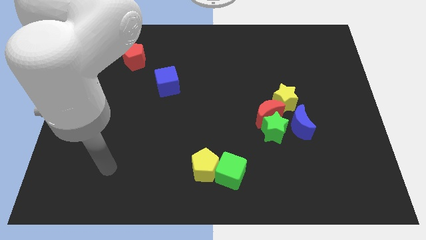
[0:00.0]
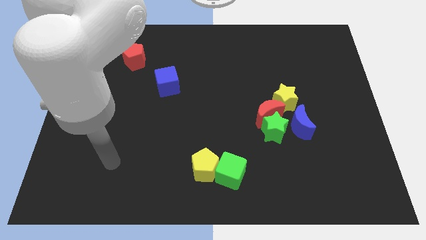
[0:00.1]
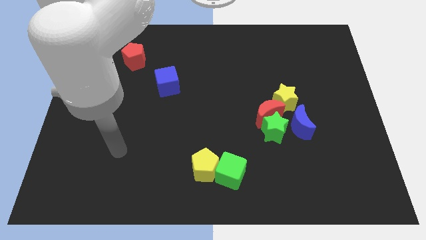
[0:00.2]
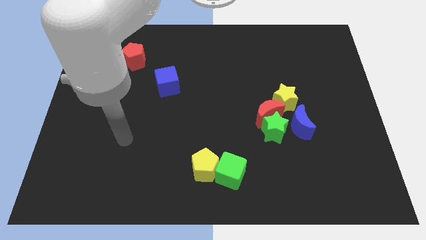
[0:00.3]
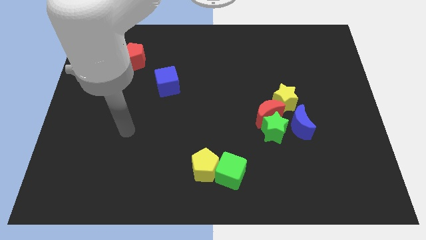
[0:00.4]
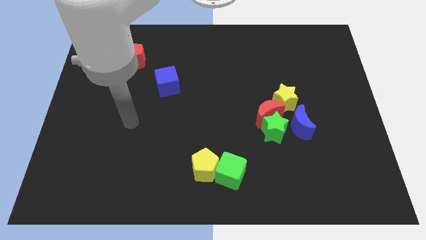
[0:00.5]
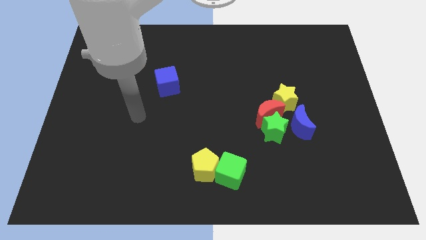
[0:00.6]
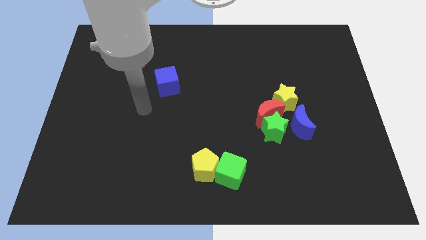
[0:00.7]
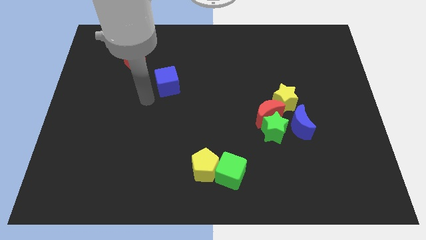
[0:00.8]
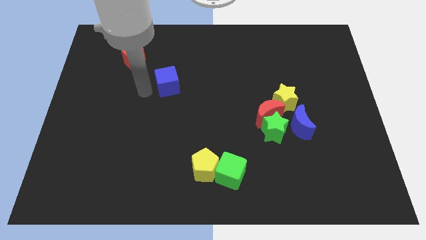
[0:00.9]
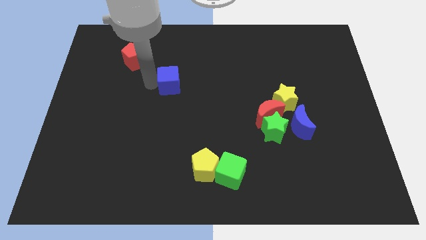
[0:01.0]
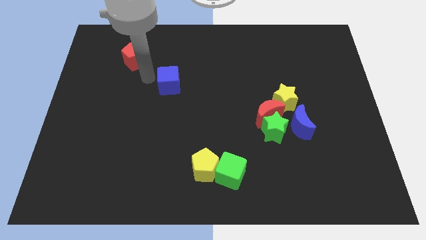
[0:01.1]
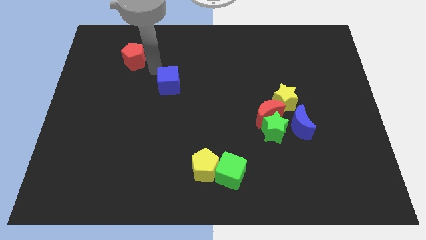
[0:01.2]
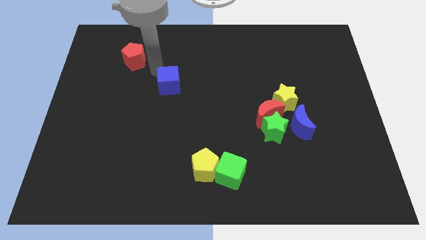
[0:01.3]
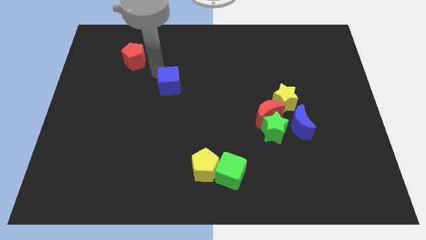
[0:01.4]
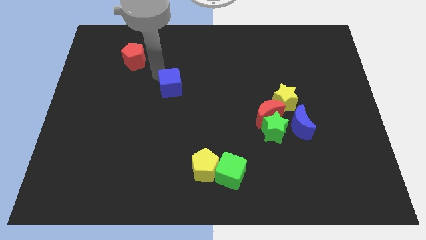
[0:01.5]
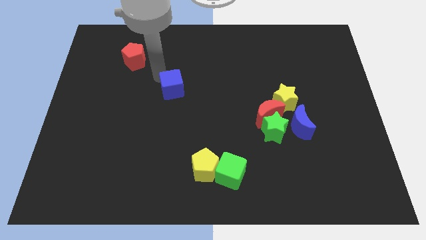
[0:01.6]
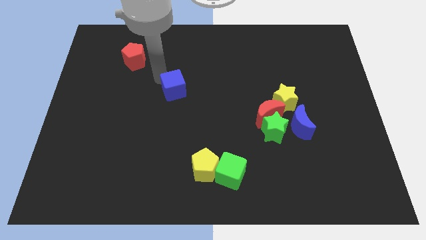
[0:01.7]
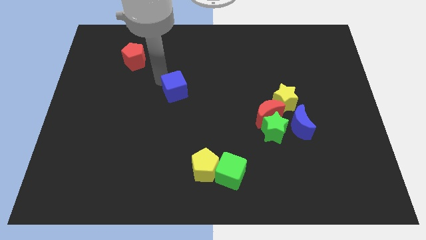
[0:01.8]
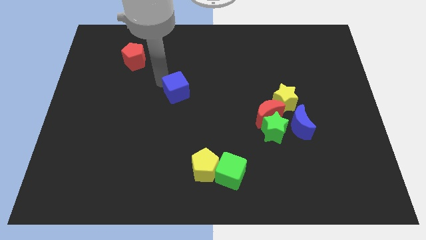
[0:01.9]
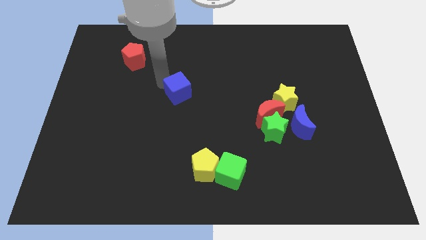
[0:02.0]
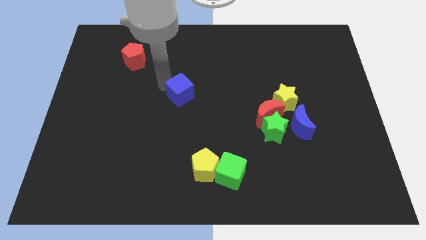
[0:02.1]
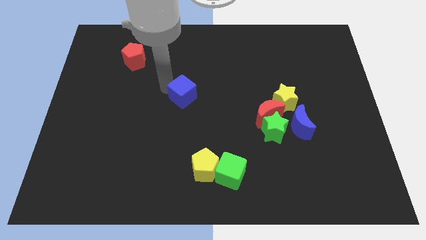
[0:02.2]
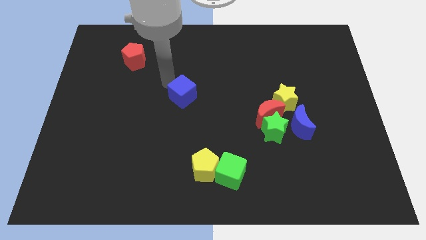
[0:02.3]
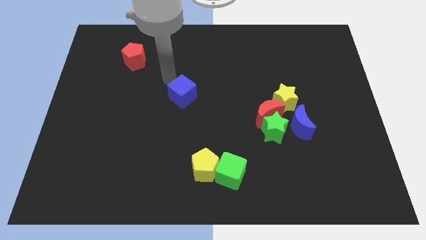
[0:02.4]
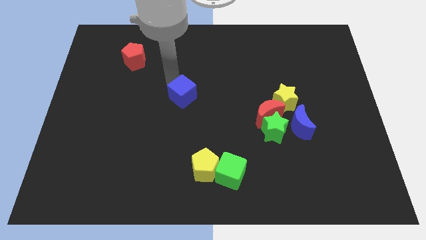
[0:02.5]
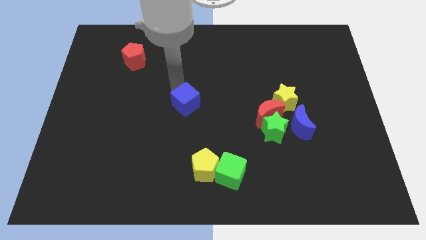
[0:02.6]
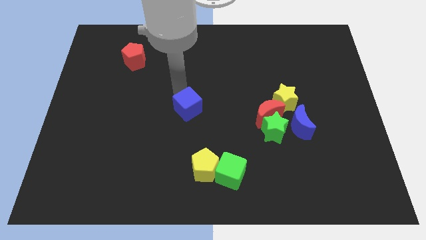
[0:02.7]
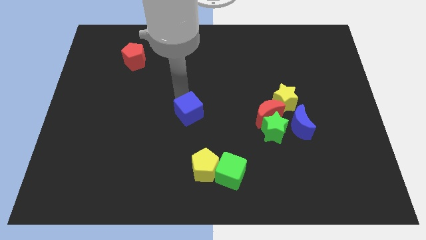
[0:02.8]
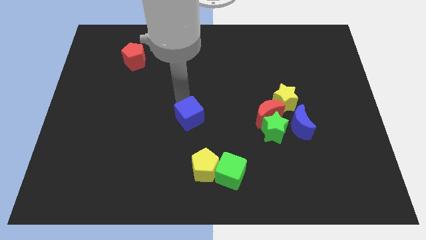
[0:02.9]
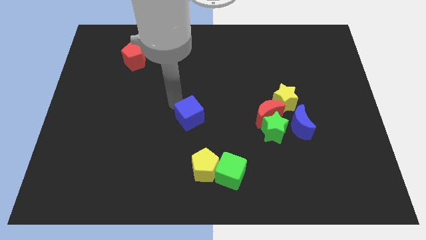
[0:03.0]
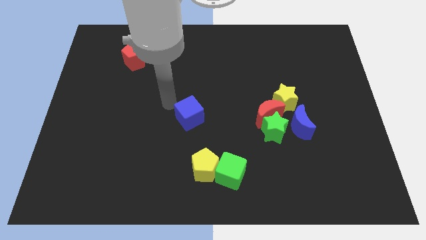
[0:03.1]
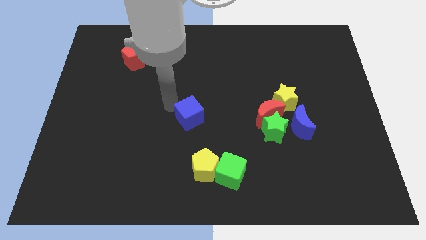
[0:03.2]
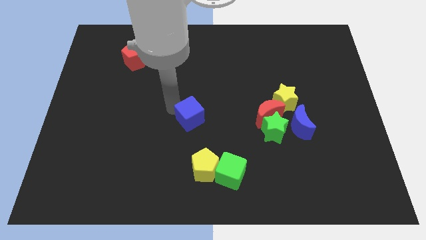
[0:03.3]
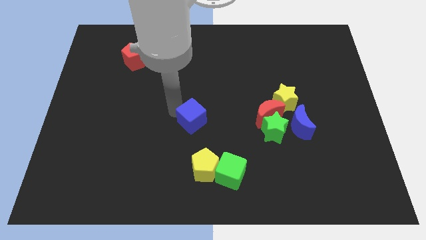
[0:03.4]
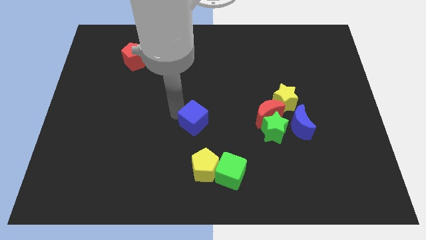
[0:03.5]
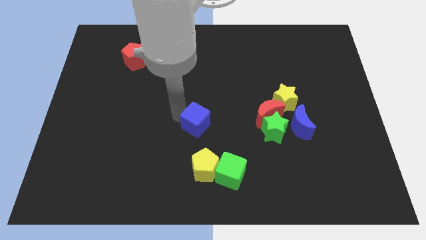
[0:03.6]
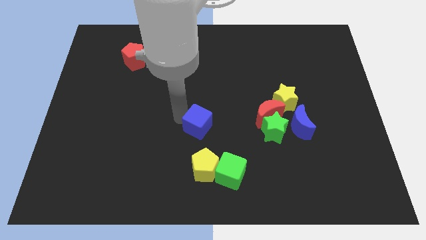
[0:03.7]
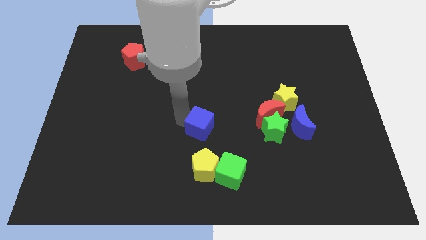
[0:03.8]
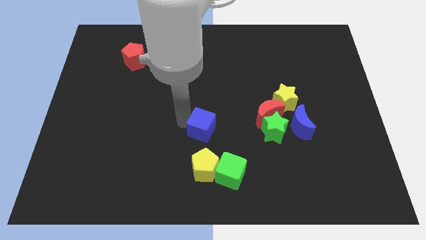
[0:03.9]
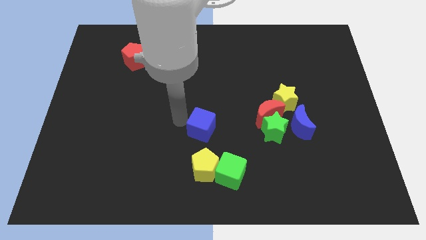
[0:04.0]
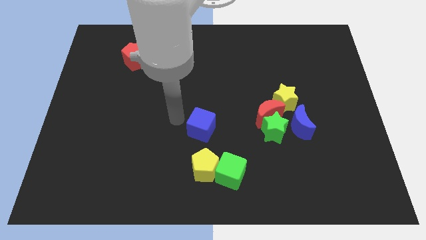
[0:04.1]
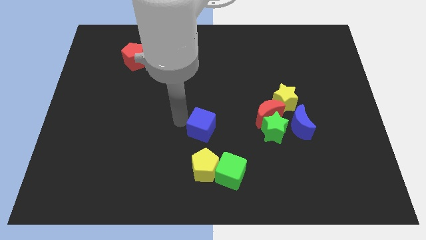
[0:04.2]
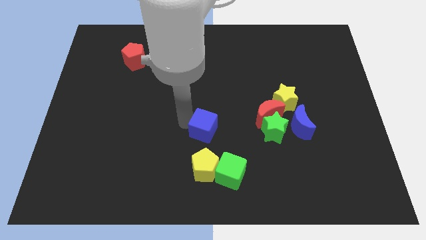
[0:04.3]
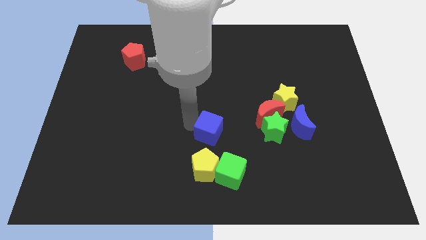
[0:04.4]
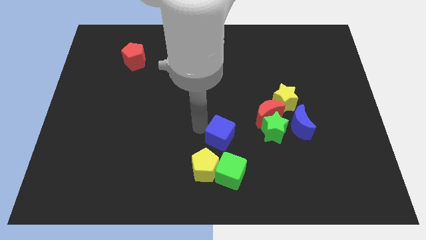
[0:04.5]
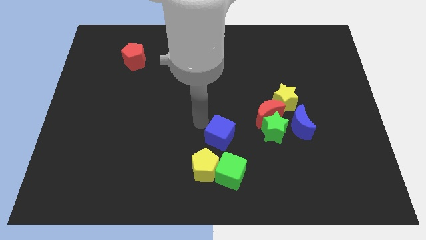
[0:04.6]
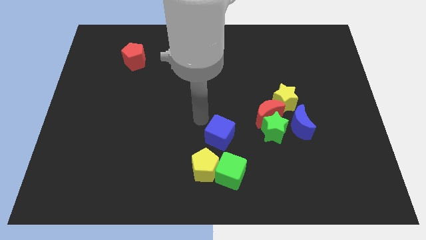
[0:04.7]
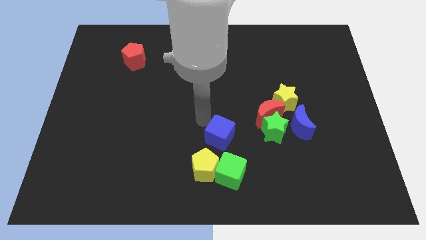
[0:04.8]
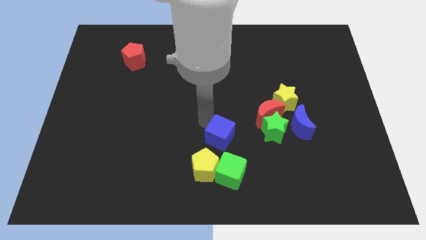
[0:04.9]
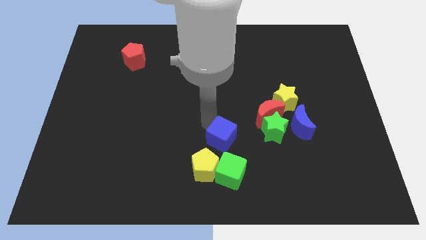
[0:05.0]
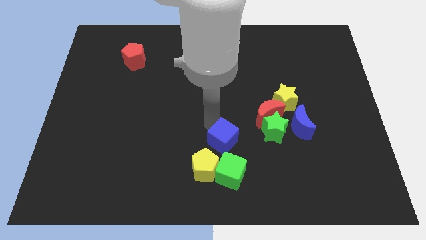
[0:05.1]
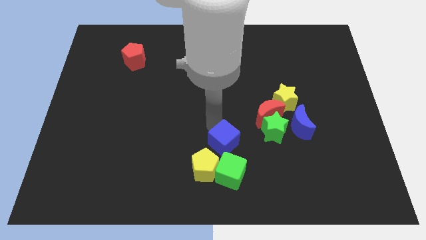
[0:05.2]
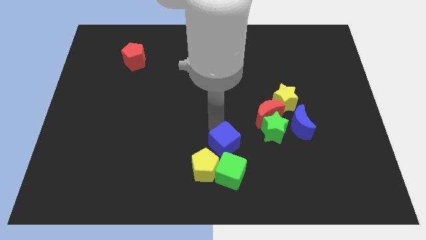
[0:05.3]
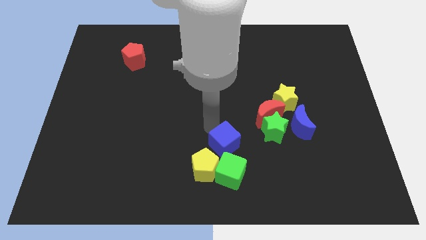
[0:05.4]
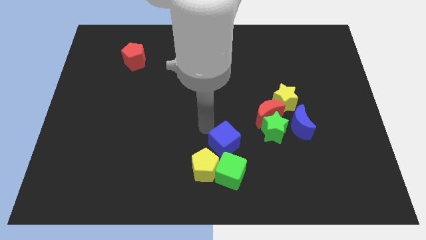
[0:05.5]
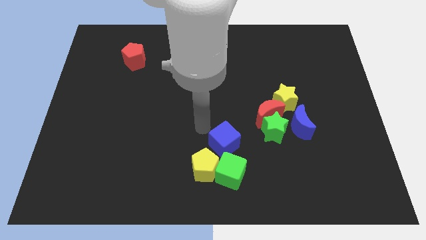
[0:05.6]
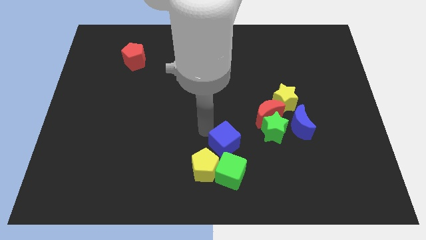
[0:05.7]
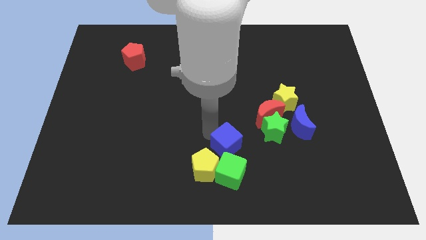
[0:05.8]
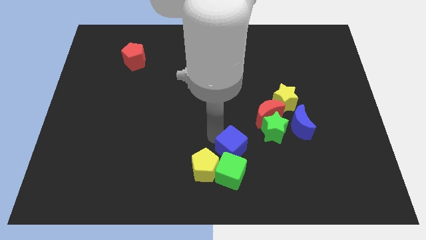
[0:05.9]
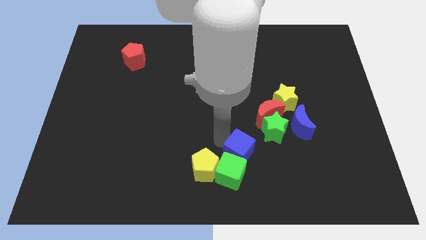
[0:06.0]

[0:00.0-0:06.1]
push the blue cube just right of the yellow pentagon
